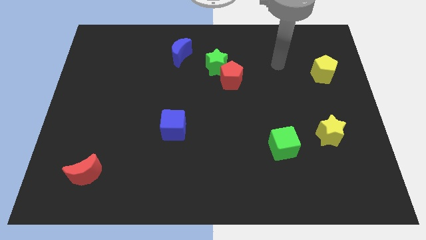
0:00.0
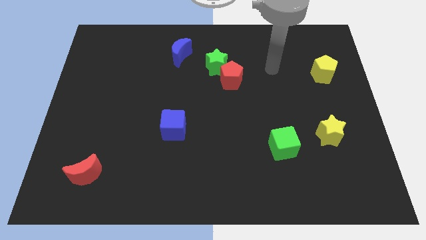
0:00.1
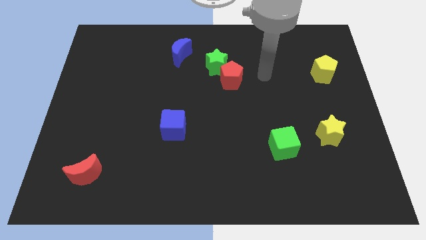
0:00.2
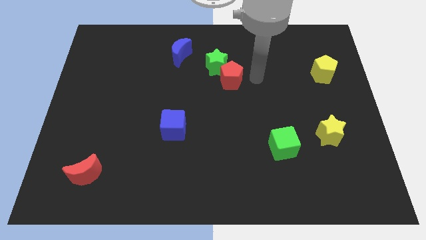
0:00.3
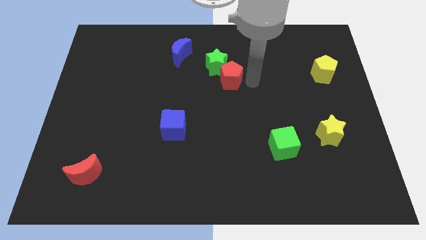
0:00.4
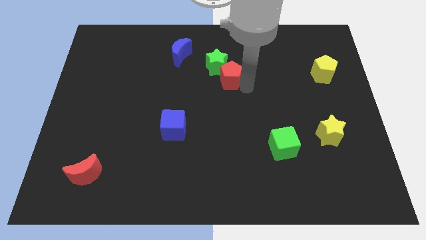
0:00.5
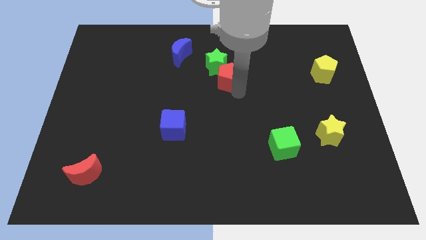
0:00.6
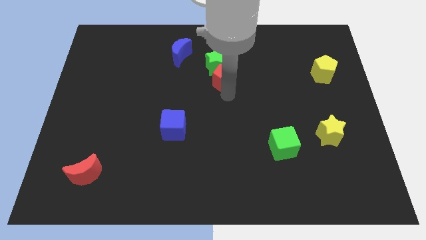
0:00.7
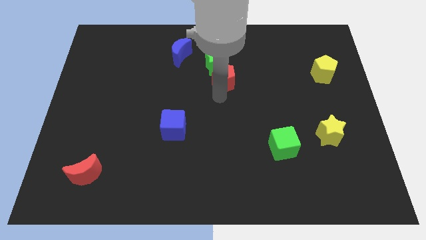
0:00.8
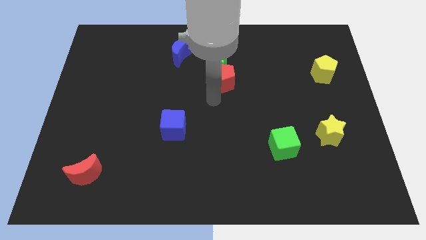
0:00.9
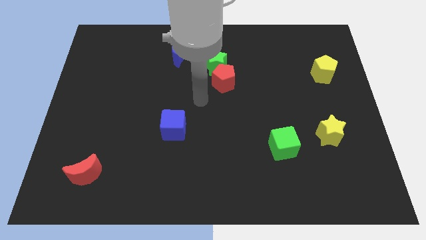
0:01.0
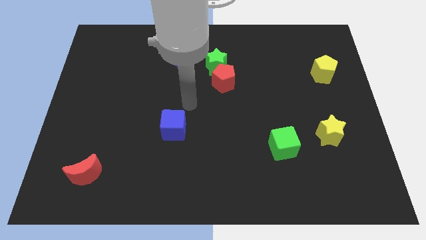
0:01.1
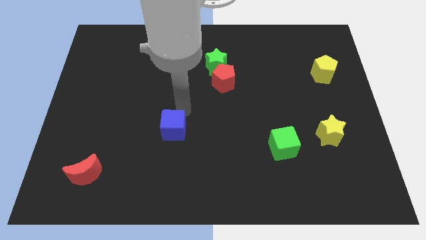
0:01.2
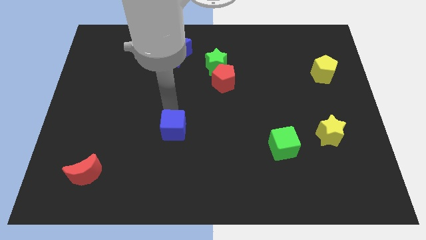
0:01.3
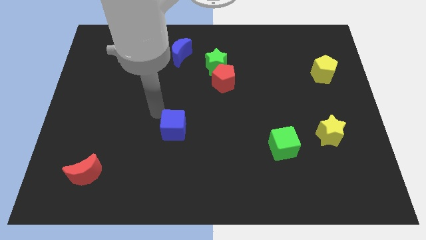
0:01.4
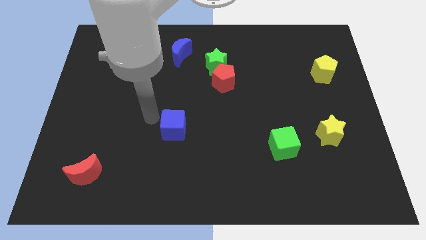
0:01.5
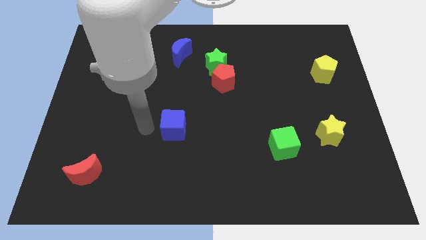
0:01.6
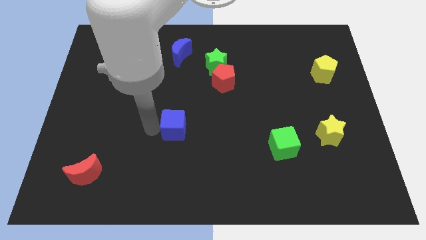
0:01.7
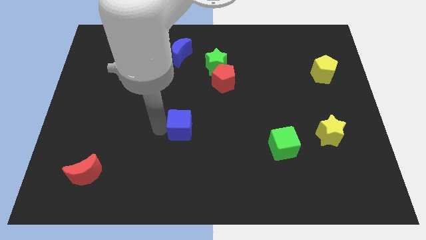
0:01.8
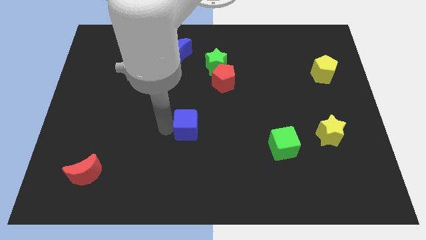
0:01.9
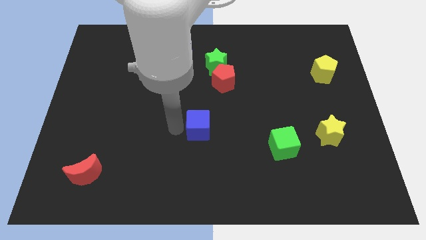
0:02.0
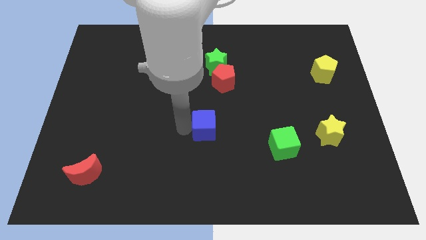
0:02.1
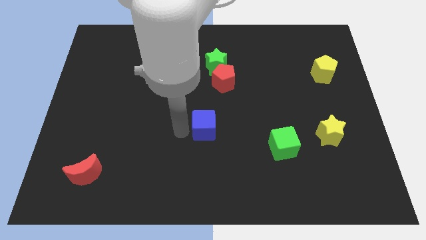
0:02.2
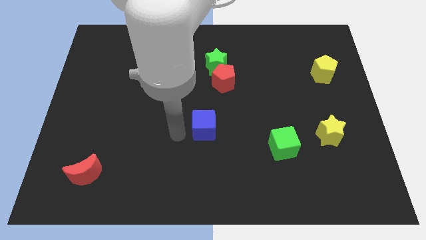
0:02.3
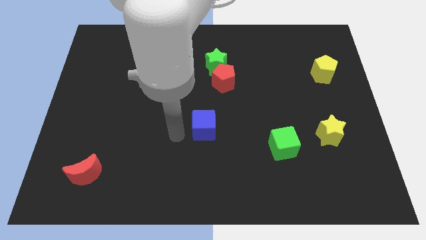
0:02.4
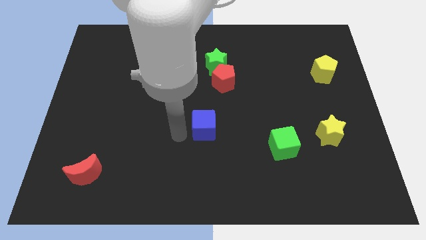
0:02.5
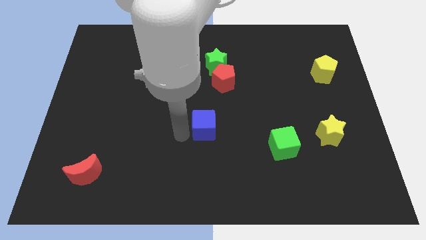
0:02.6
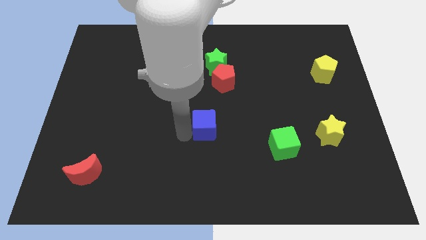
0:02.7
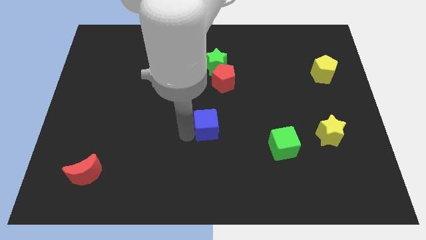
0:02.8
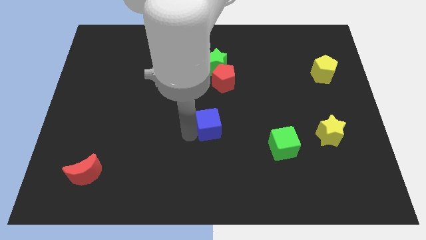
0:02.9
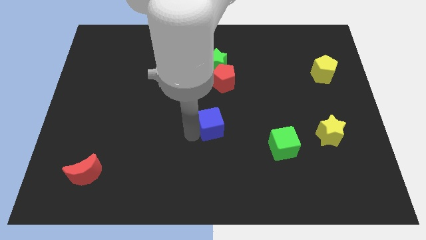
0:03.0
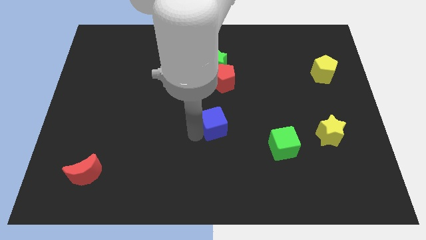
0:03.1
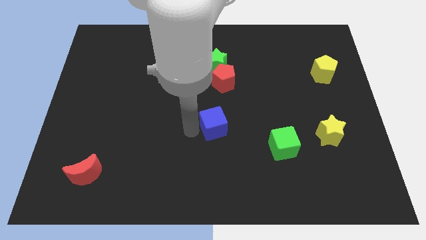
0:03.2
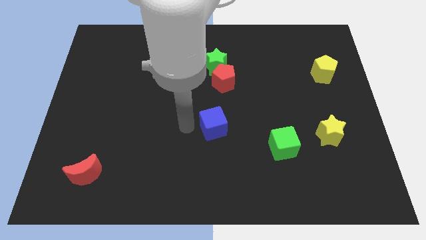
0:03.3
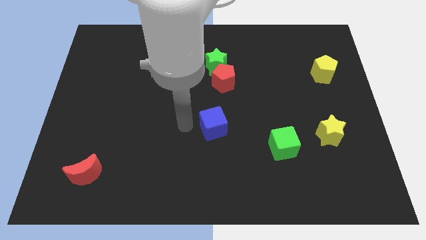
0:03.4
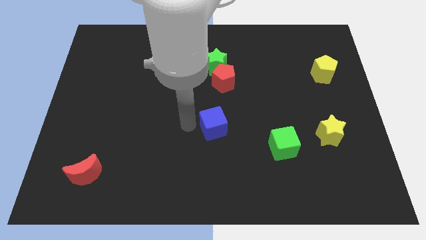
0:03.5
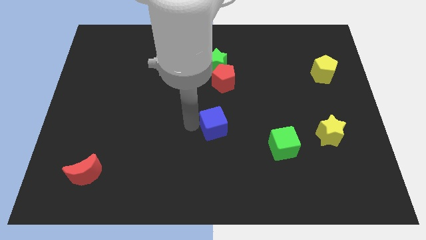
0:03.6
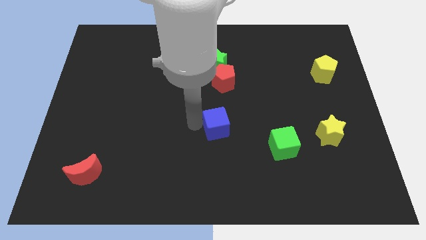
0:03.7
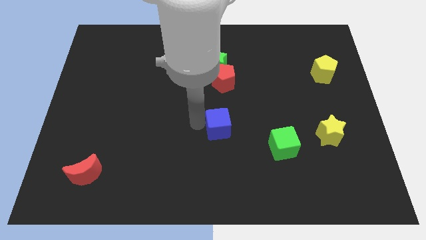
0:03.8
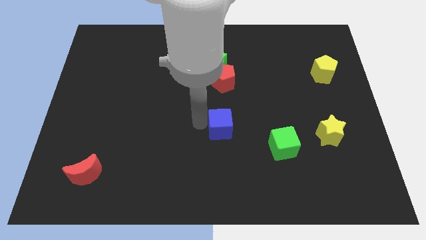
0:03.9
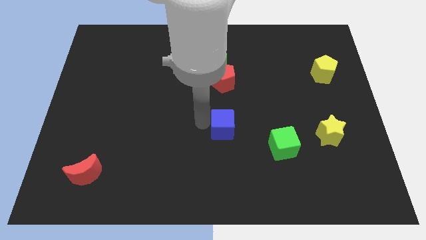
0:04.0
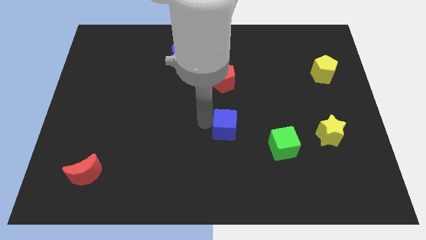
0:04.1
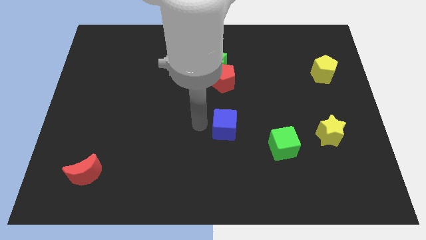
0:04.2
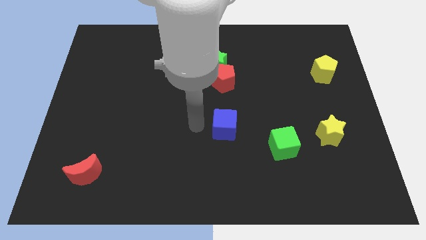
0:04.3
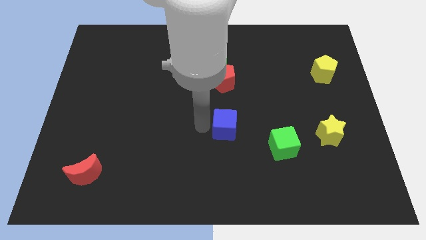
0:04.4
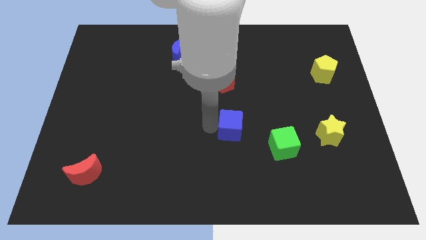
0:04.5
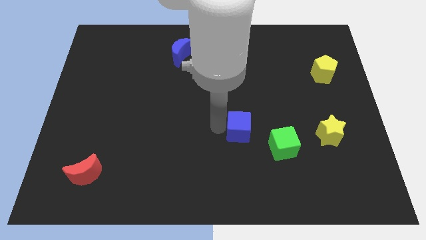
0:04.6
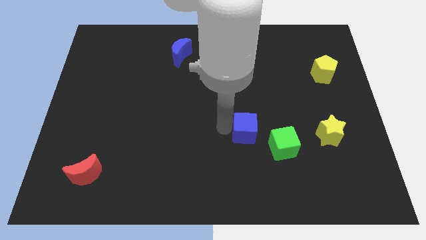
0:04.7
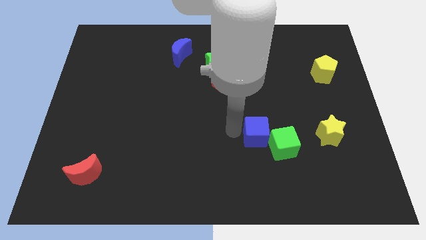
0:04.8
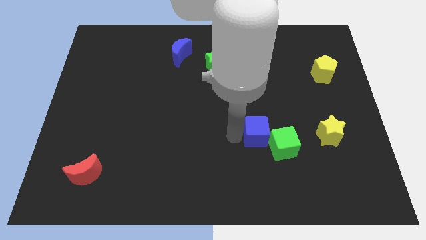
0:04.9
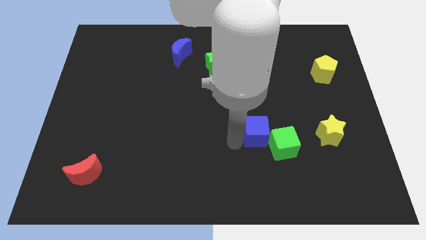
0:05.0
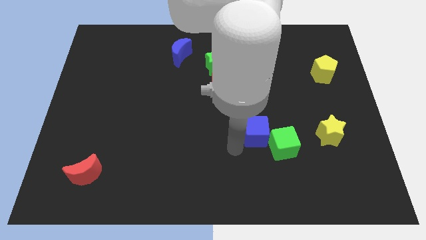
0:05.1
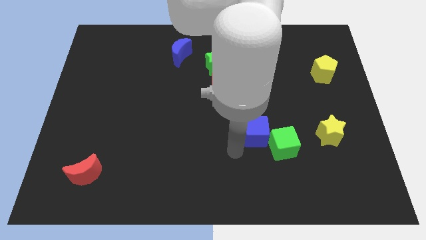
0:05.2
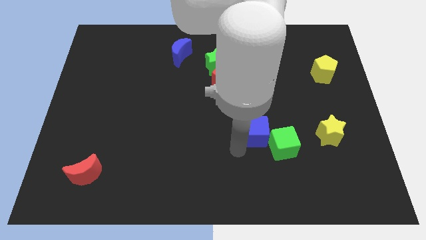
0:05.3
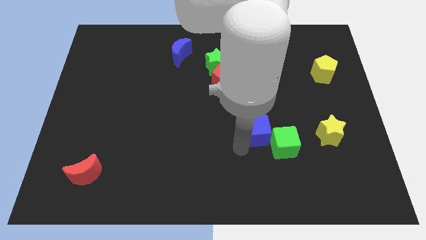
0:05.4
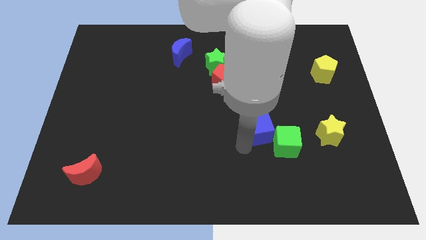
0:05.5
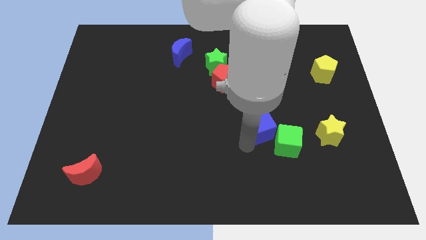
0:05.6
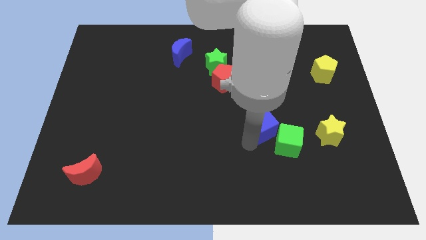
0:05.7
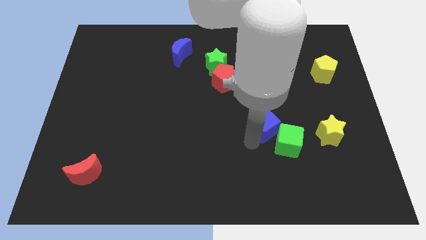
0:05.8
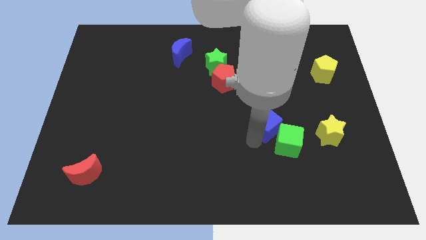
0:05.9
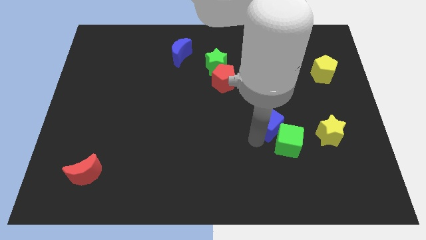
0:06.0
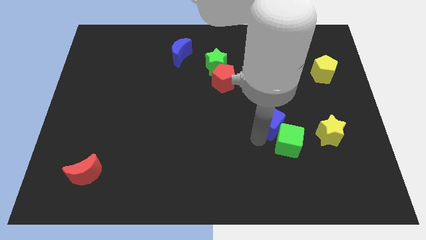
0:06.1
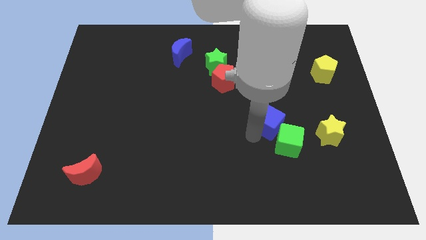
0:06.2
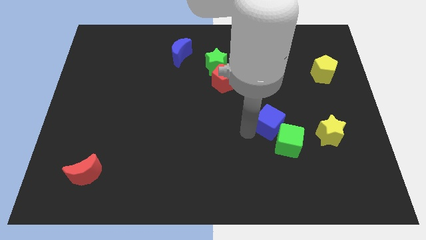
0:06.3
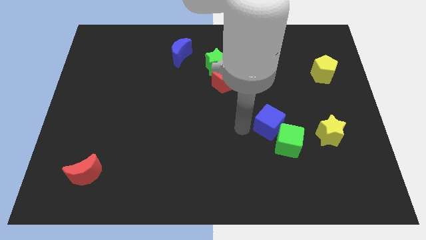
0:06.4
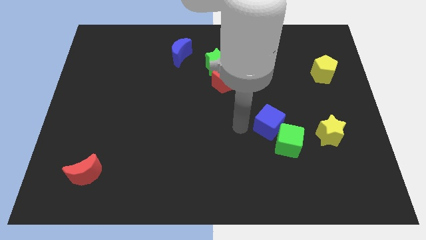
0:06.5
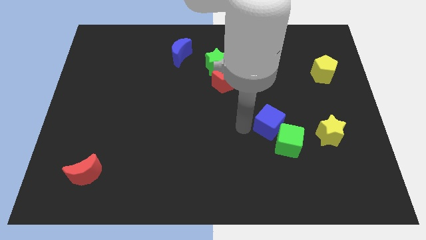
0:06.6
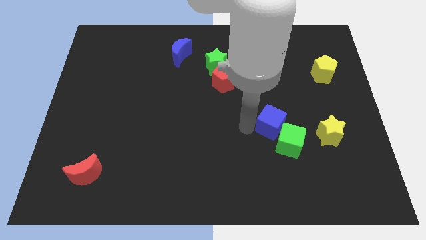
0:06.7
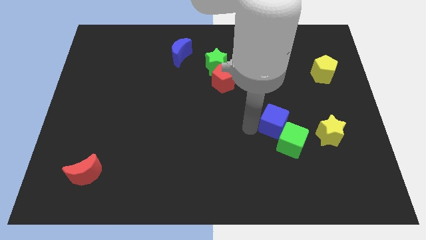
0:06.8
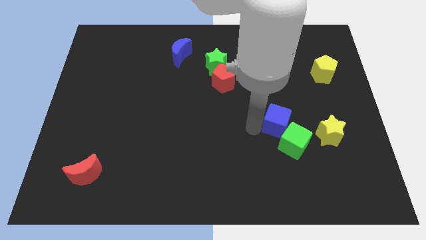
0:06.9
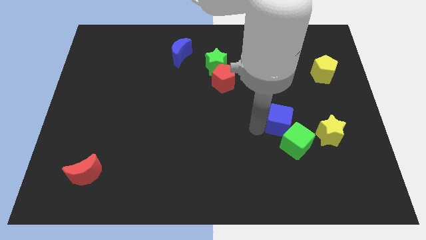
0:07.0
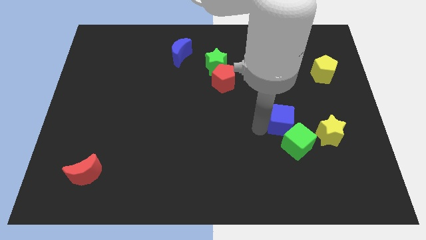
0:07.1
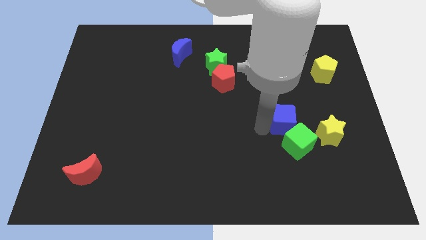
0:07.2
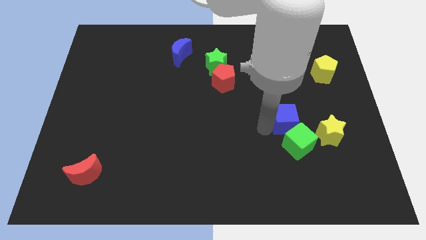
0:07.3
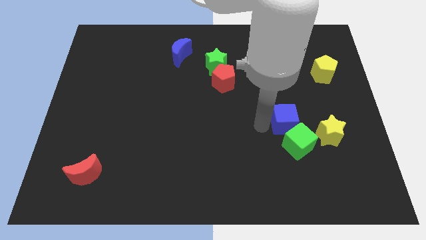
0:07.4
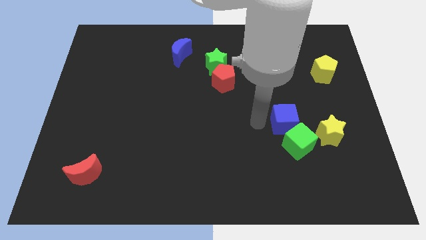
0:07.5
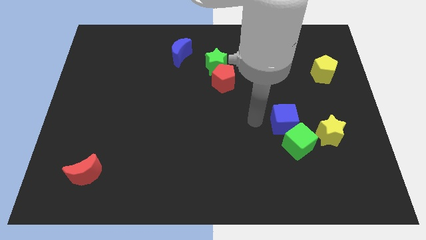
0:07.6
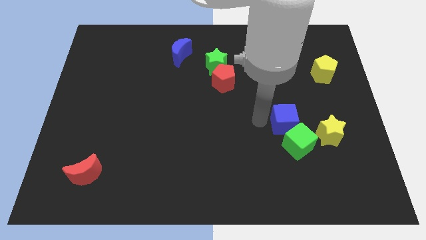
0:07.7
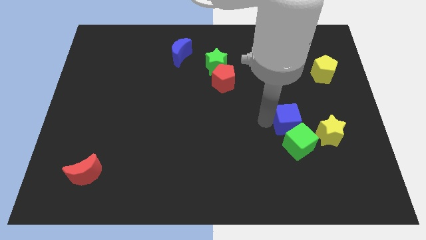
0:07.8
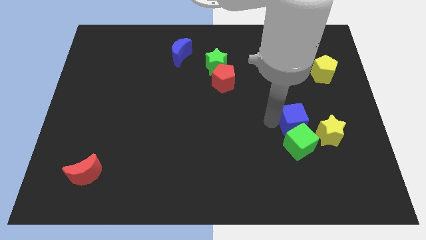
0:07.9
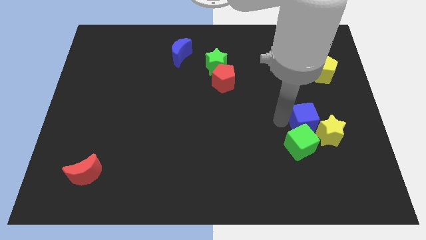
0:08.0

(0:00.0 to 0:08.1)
move the blue cube to the yellow star
